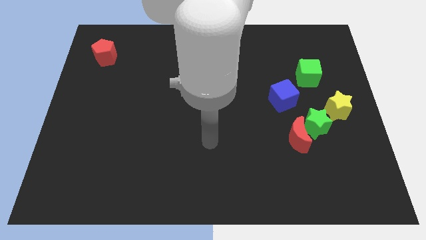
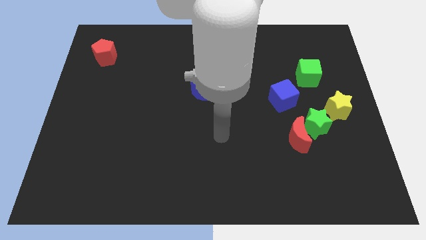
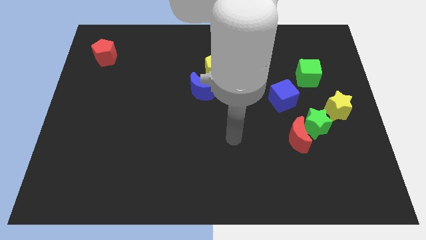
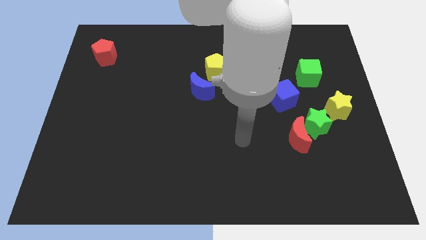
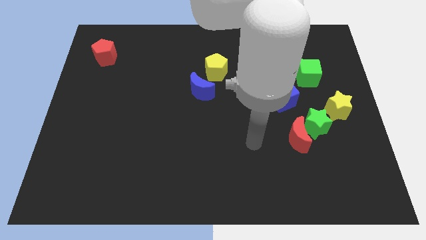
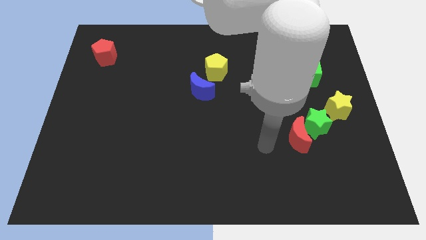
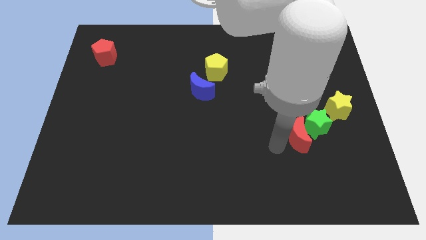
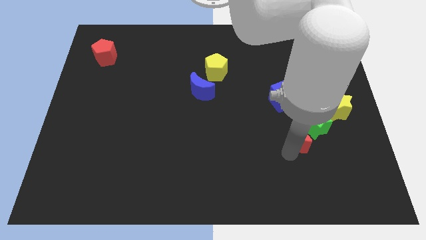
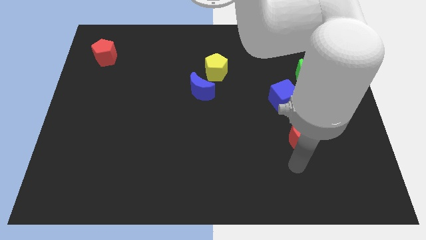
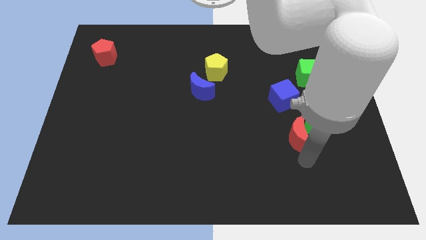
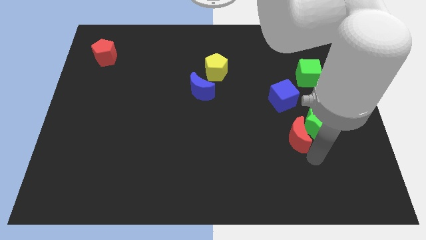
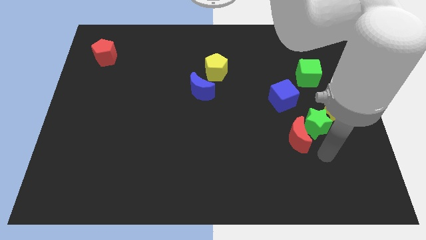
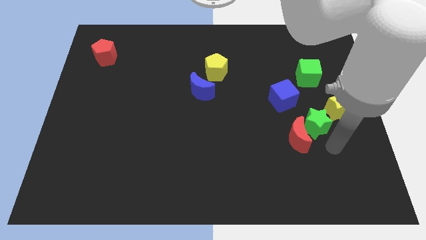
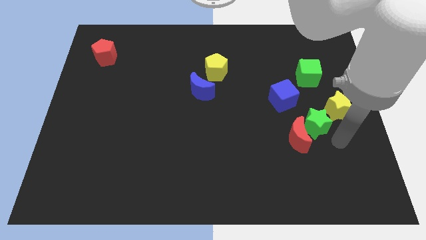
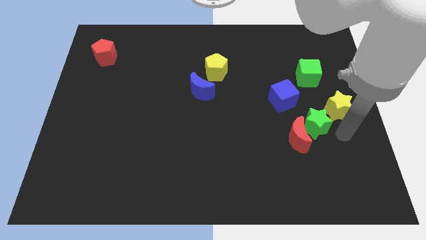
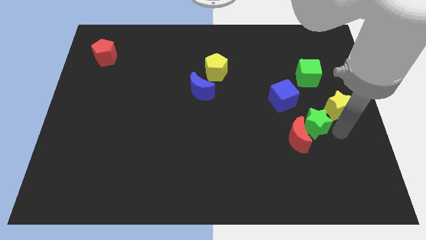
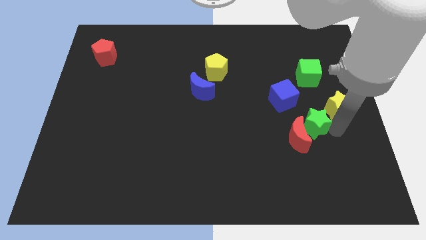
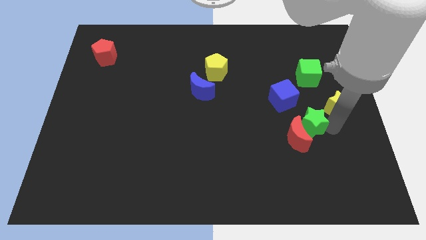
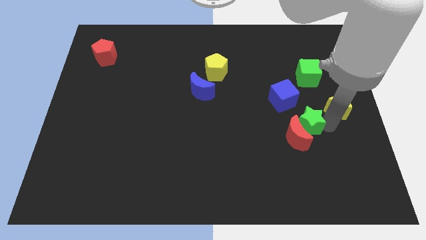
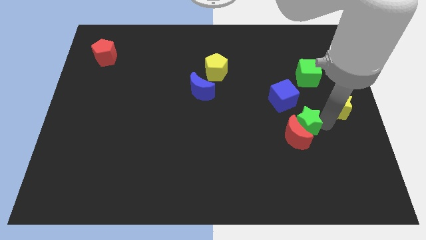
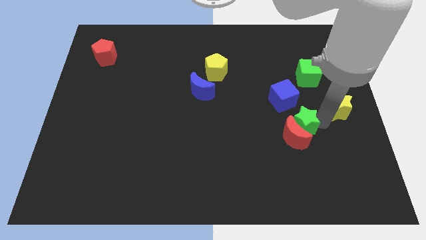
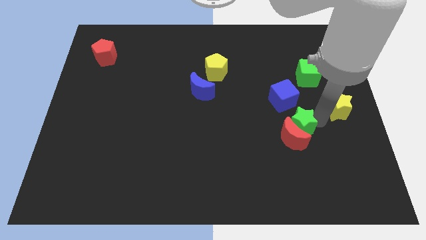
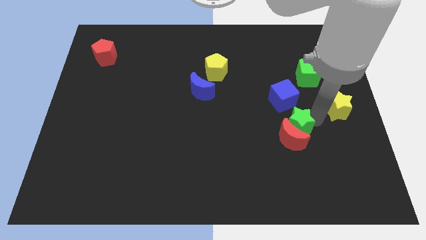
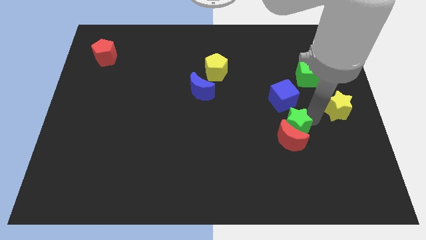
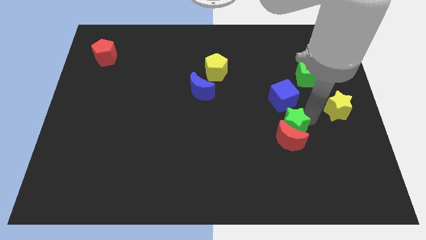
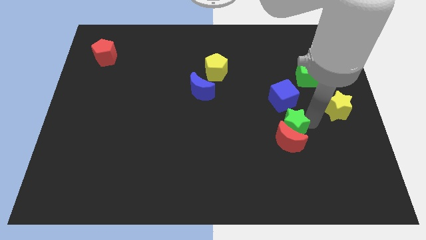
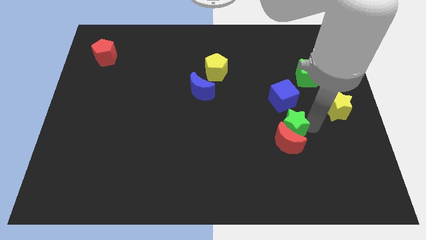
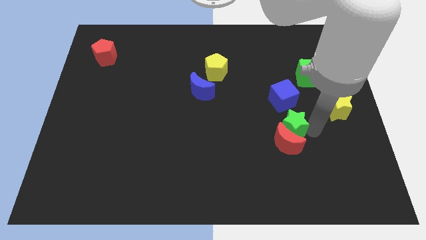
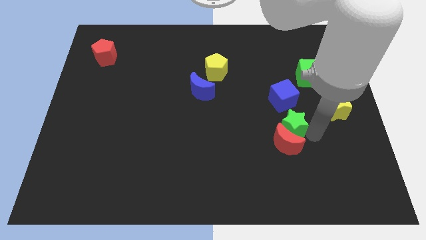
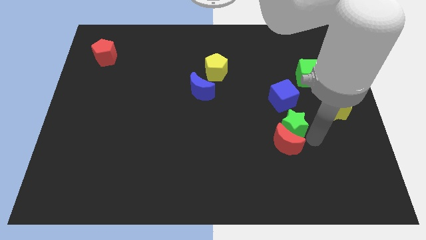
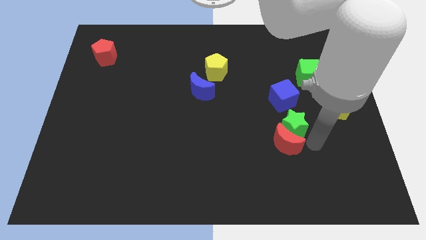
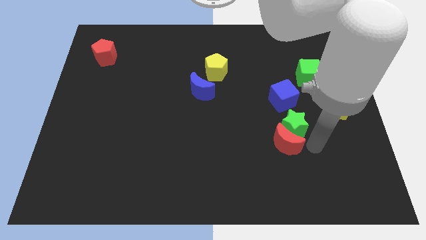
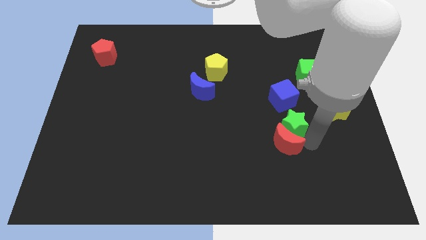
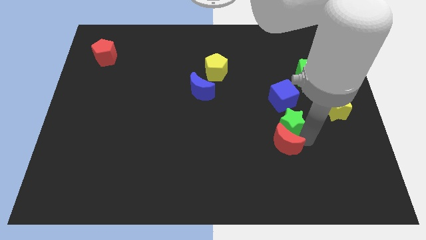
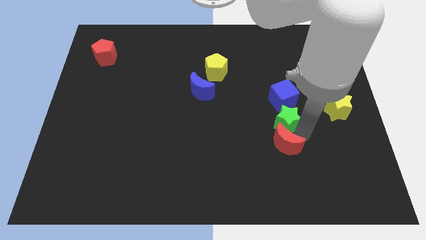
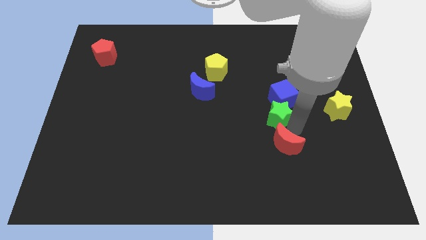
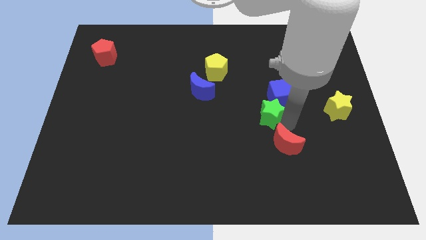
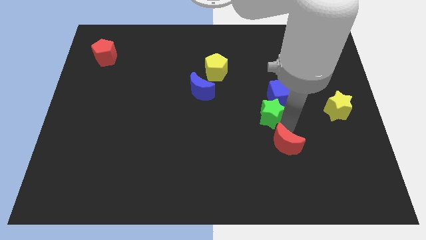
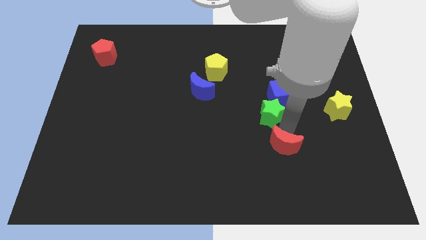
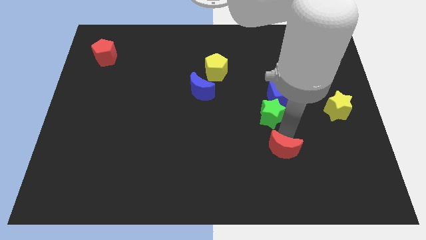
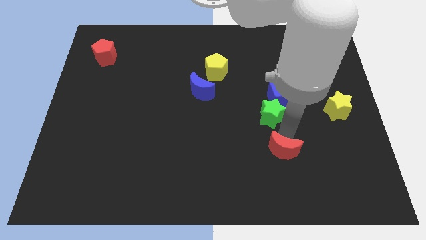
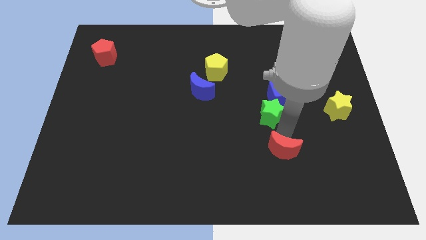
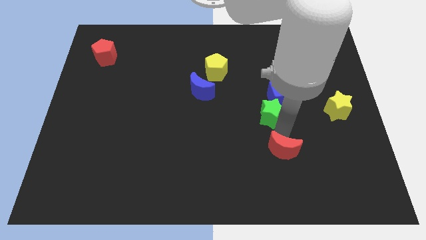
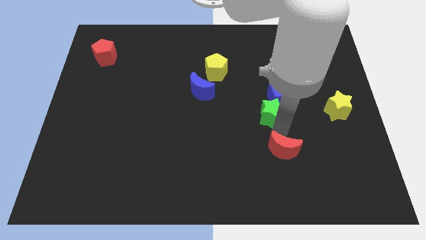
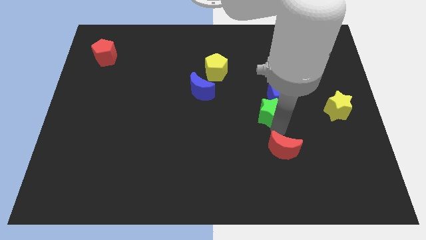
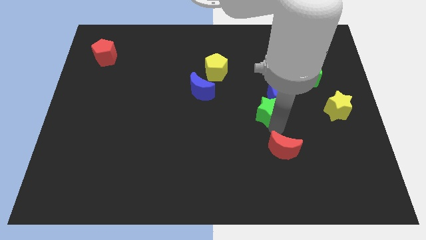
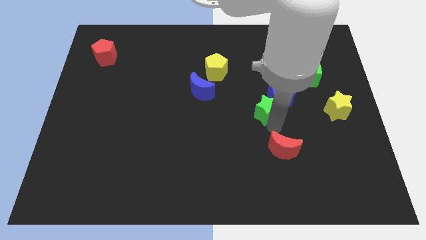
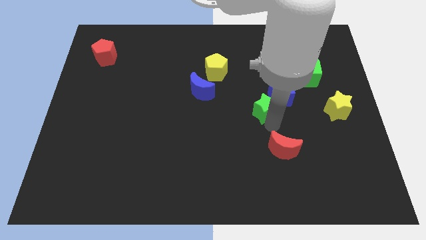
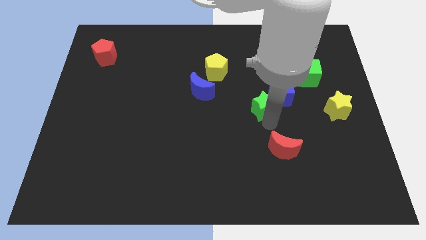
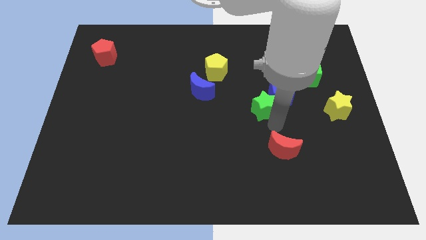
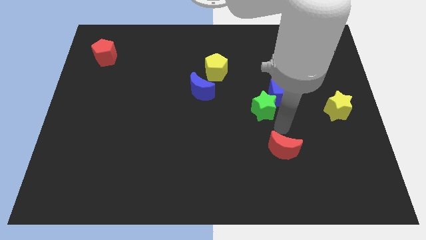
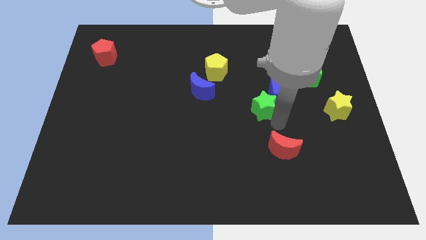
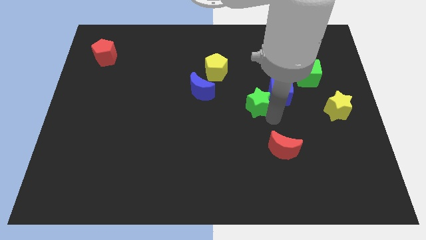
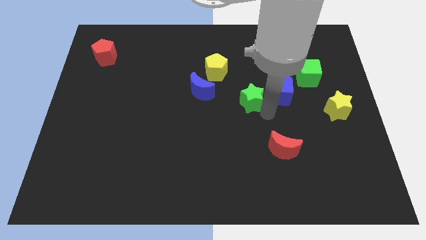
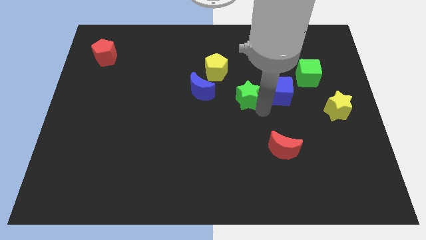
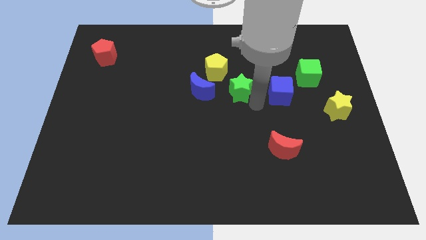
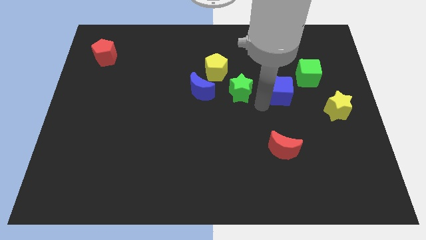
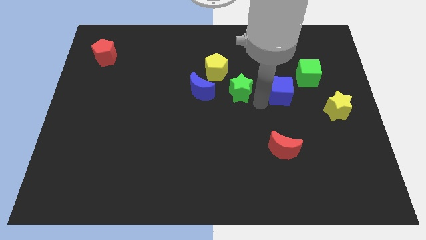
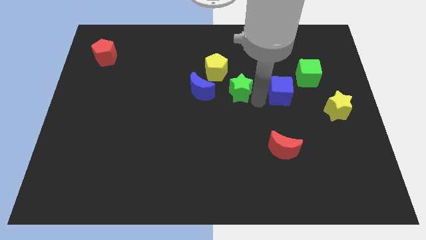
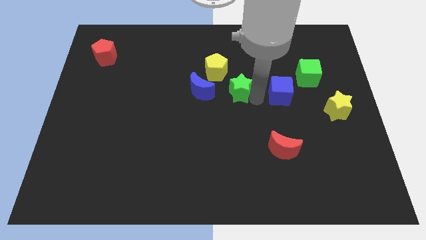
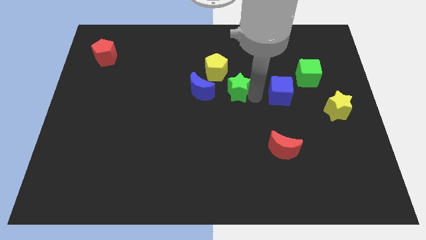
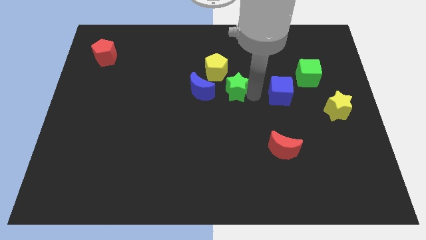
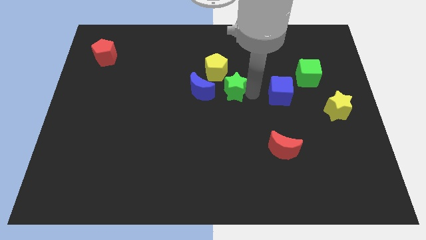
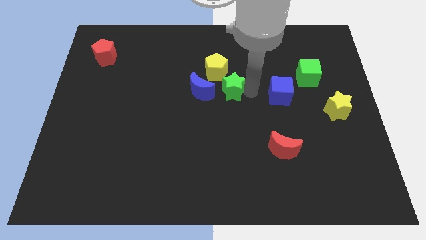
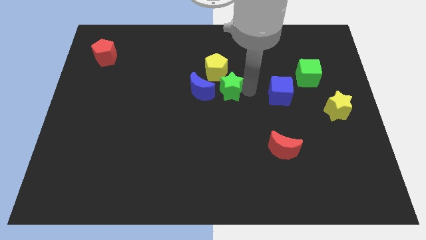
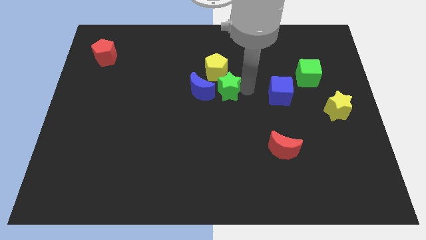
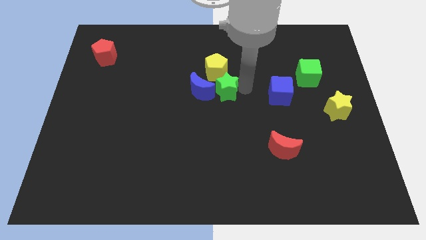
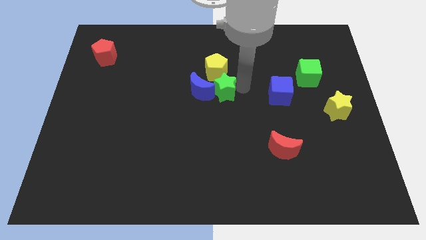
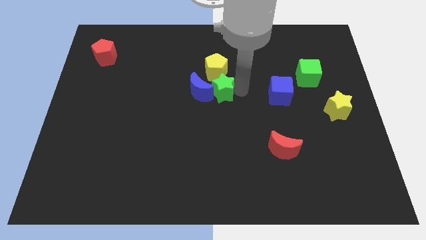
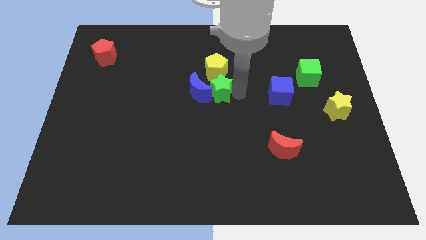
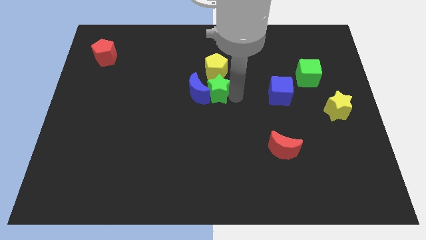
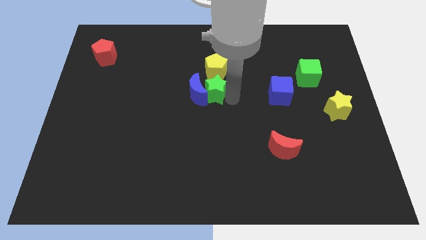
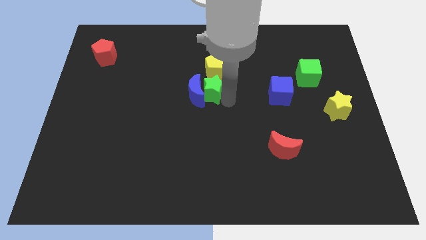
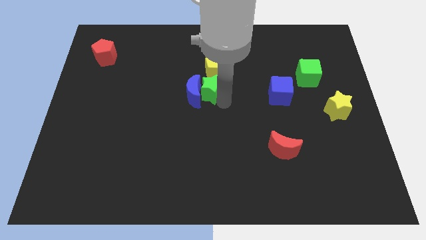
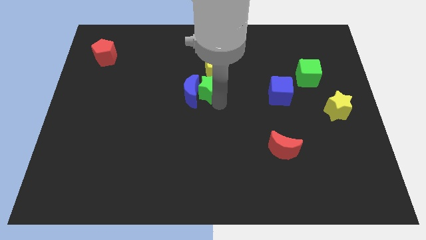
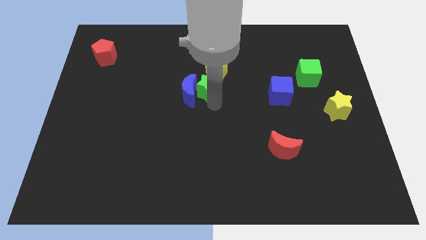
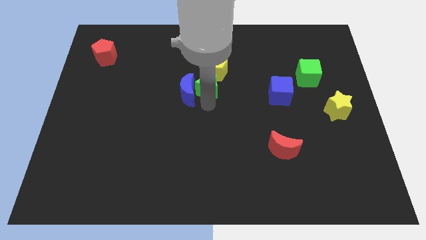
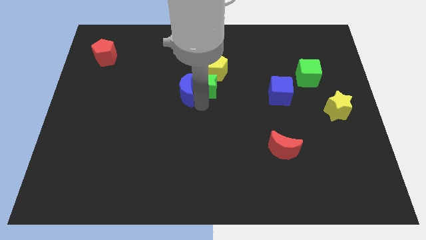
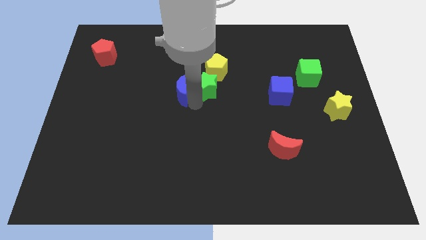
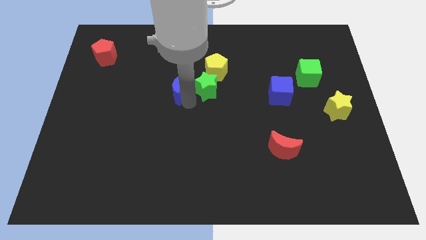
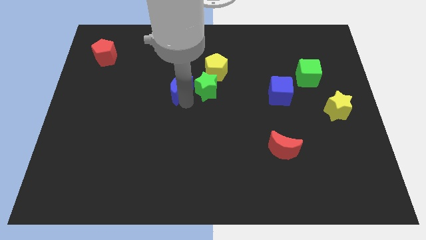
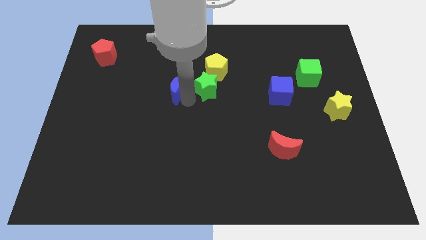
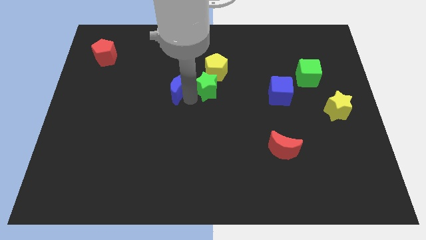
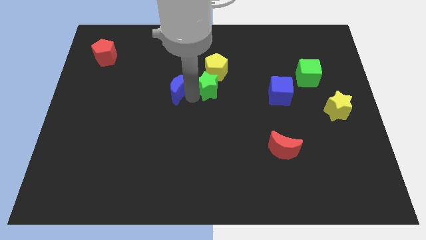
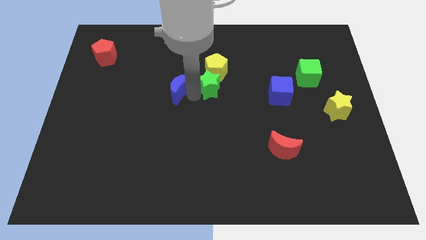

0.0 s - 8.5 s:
put the green star towards the yellow pentagon
